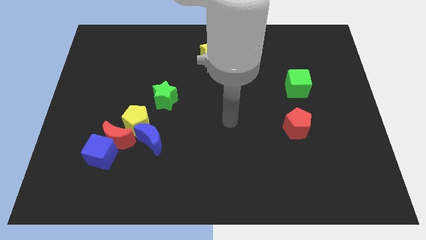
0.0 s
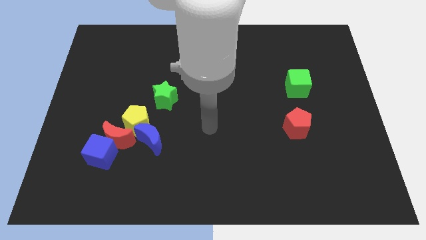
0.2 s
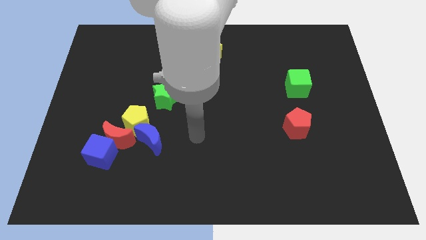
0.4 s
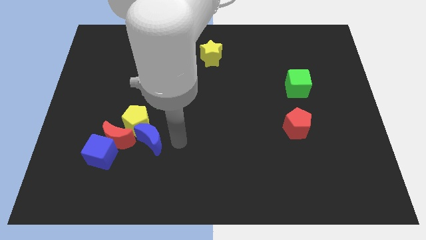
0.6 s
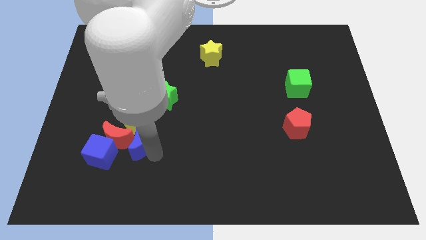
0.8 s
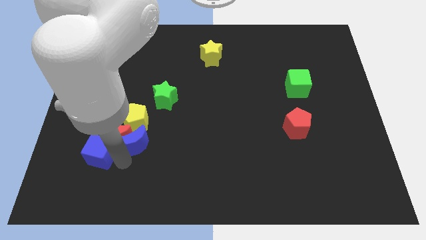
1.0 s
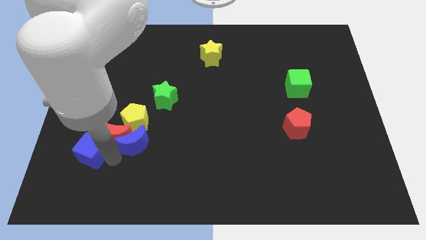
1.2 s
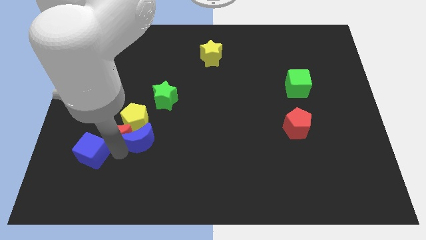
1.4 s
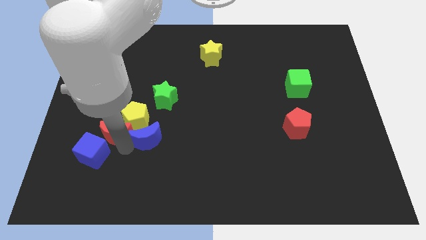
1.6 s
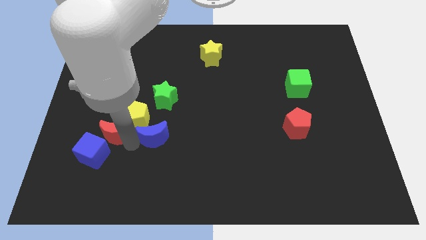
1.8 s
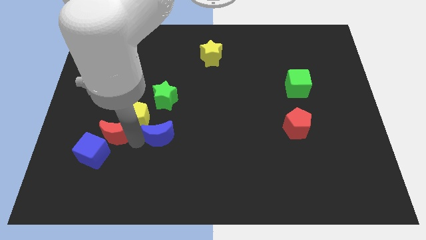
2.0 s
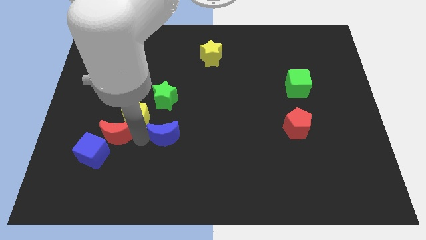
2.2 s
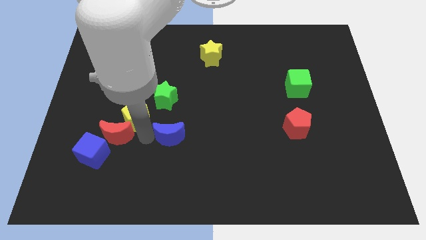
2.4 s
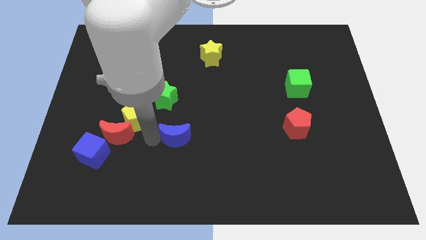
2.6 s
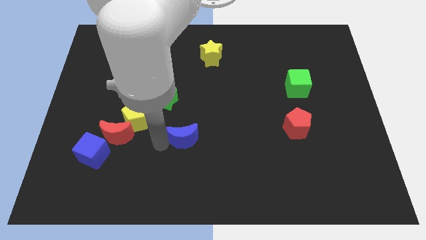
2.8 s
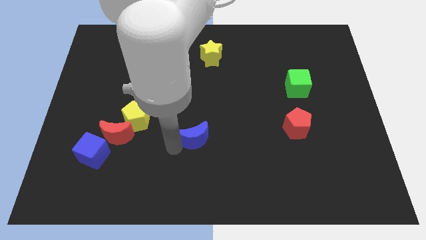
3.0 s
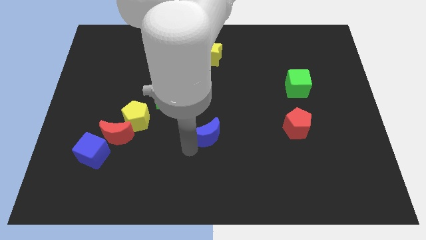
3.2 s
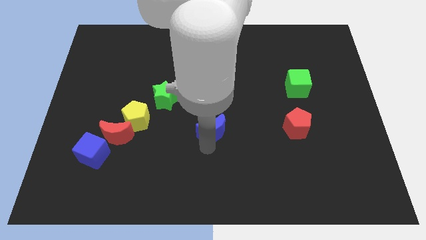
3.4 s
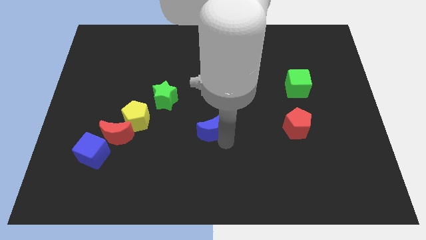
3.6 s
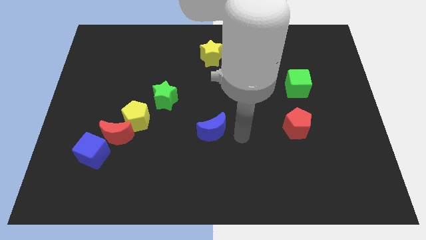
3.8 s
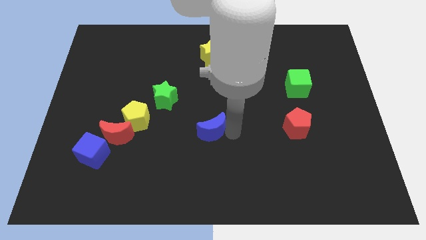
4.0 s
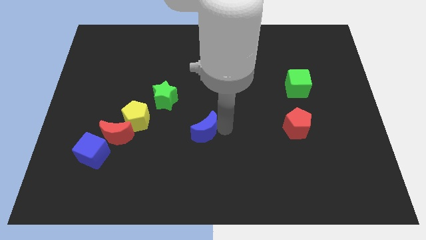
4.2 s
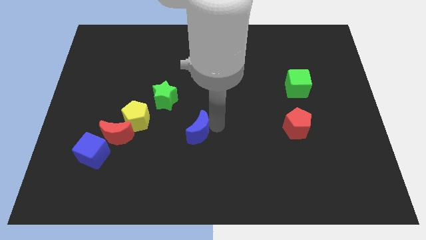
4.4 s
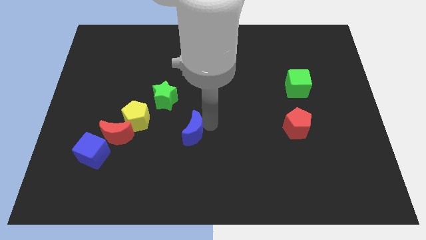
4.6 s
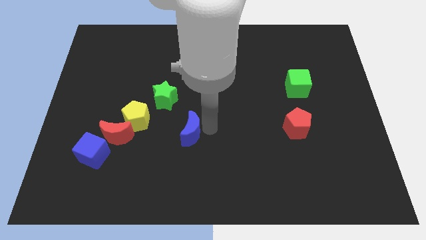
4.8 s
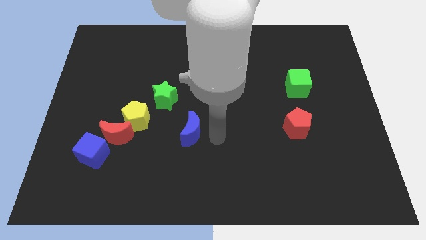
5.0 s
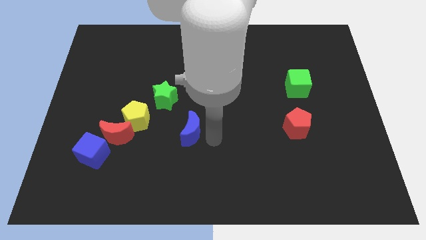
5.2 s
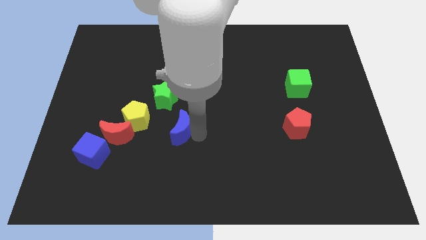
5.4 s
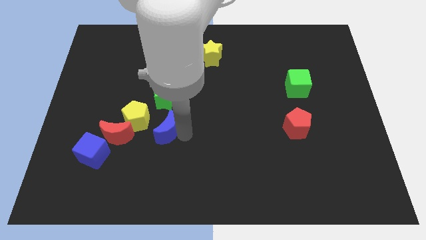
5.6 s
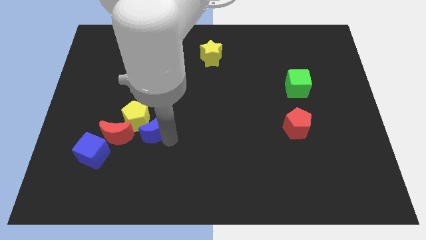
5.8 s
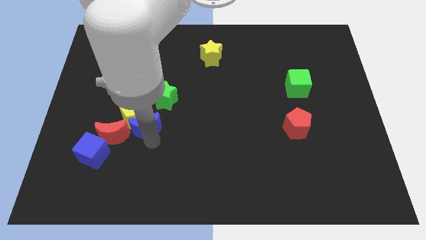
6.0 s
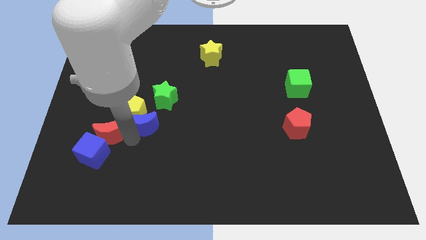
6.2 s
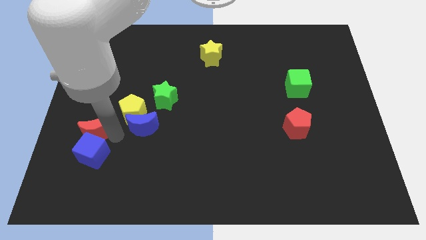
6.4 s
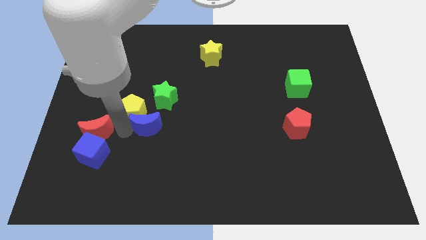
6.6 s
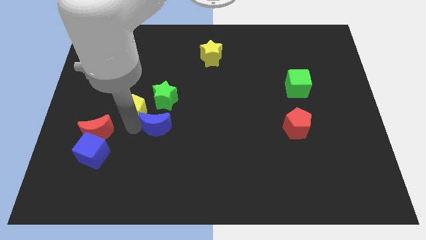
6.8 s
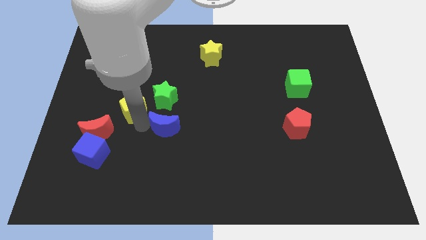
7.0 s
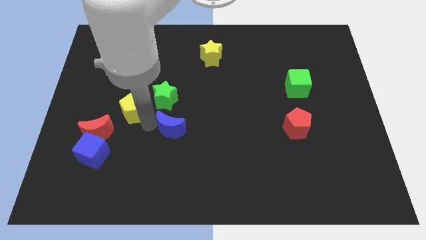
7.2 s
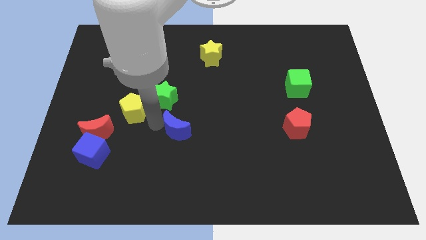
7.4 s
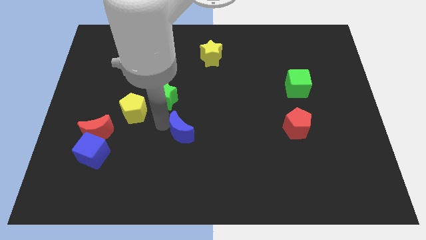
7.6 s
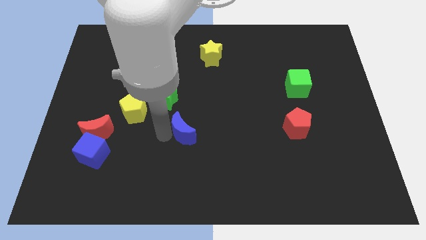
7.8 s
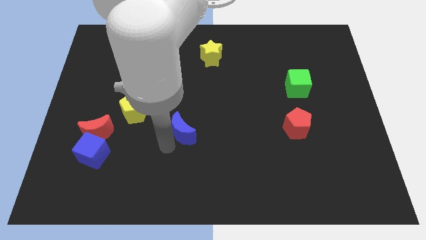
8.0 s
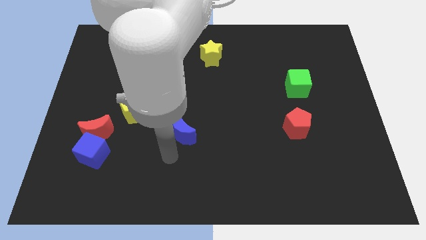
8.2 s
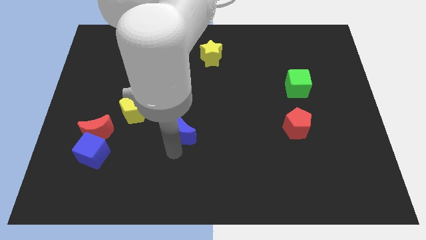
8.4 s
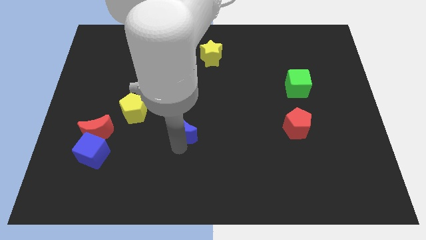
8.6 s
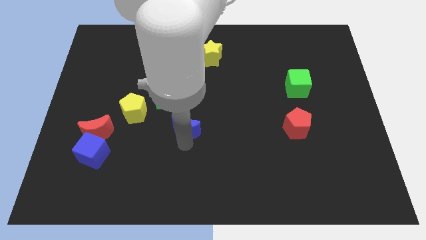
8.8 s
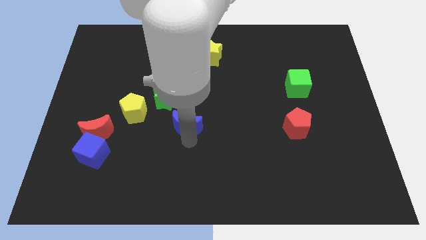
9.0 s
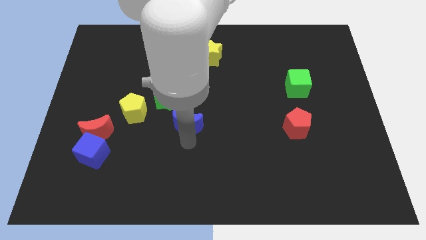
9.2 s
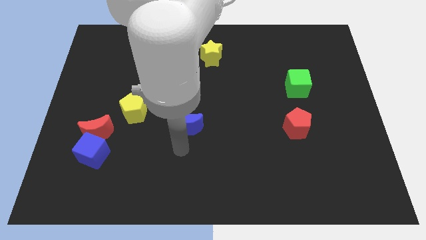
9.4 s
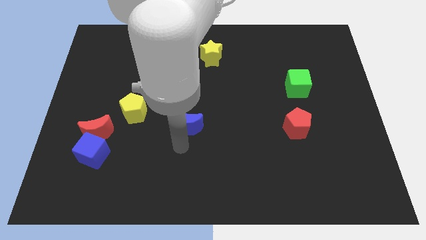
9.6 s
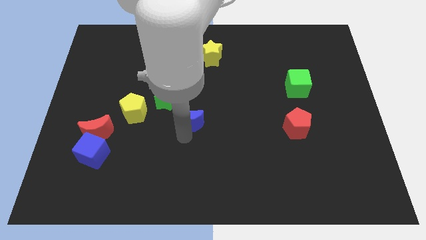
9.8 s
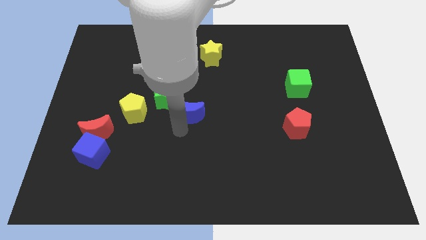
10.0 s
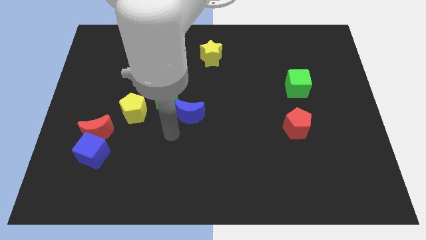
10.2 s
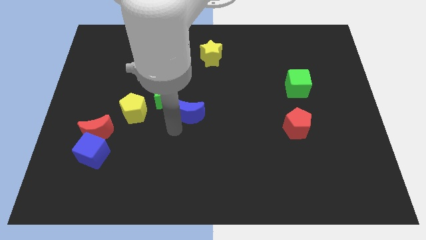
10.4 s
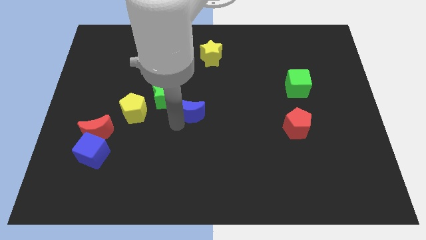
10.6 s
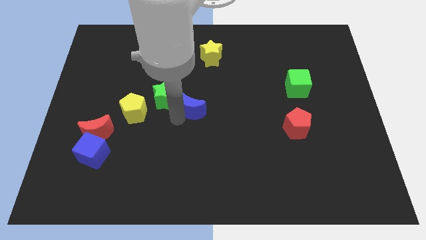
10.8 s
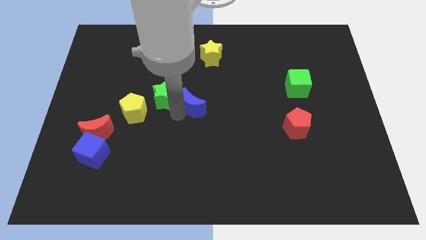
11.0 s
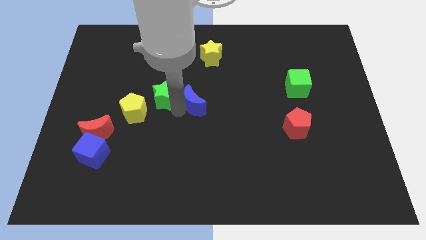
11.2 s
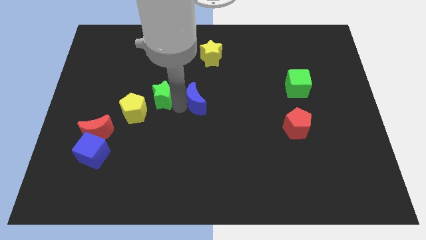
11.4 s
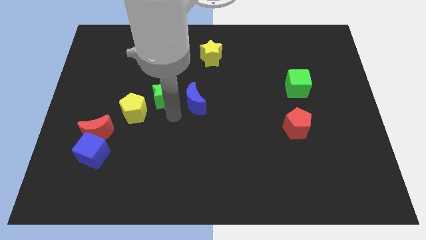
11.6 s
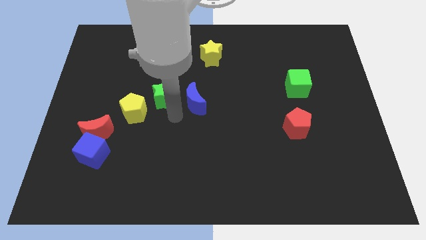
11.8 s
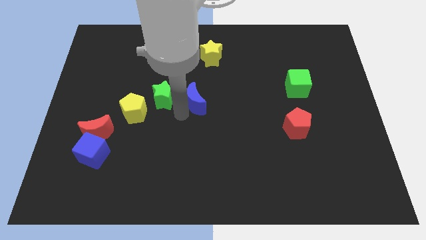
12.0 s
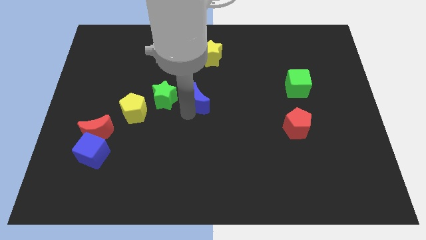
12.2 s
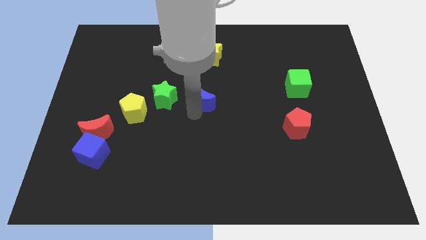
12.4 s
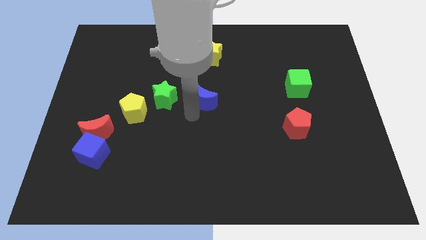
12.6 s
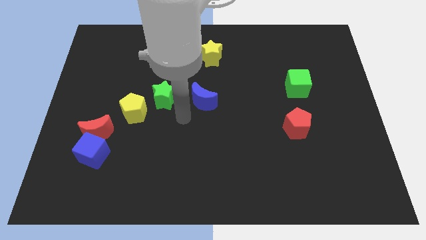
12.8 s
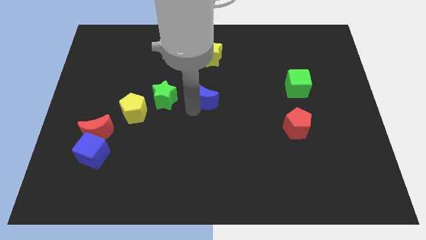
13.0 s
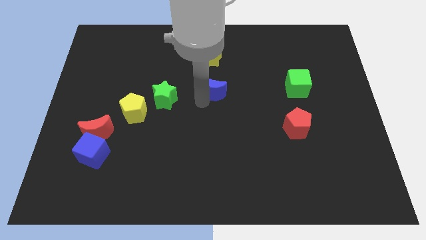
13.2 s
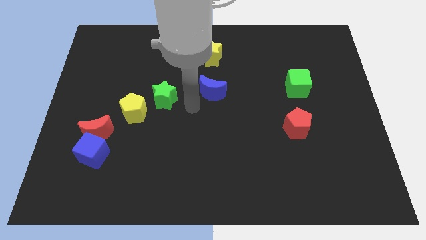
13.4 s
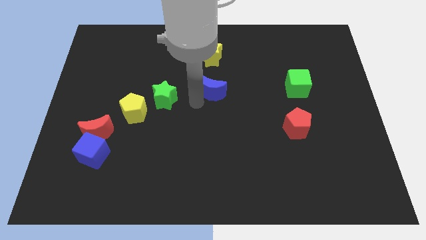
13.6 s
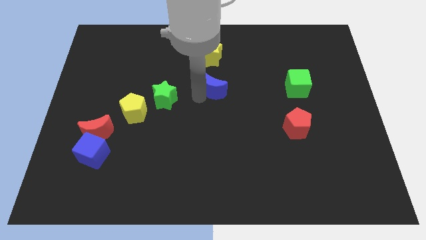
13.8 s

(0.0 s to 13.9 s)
slide the blue moon up and then right

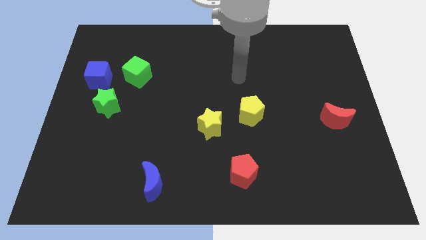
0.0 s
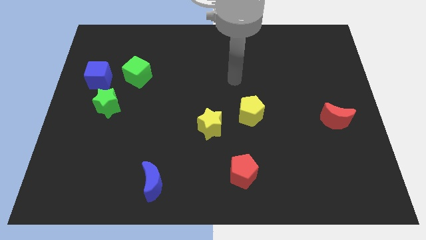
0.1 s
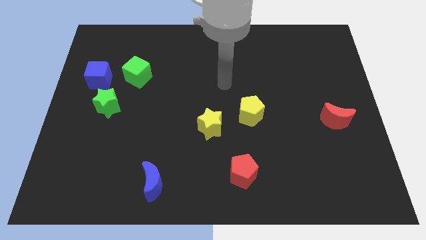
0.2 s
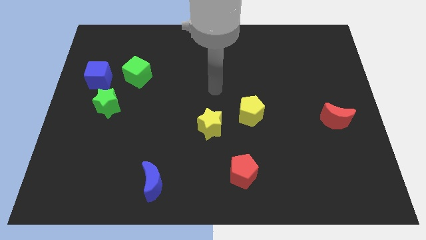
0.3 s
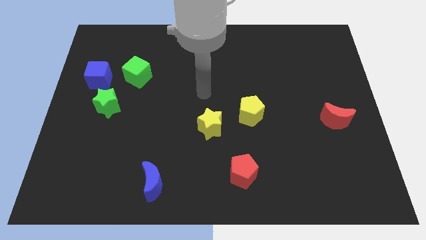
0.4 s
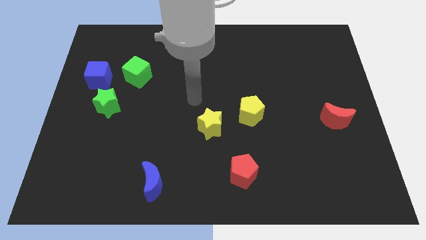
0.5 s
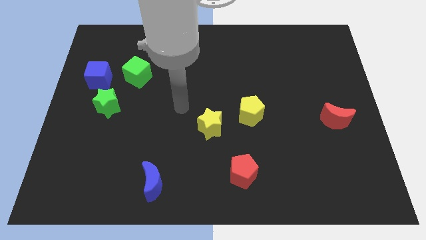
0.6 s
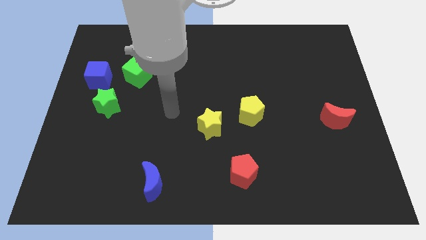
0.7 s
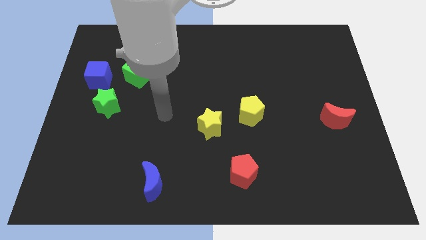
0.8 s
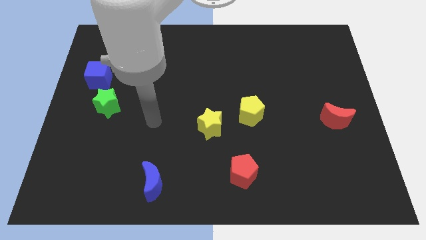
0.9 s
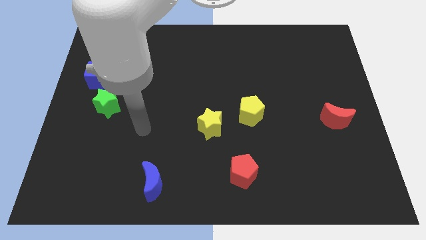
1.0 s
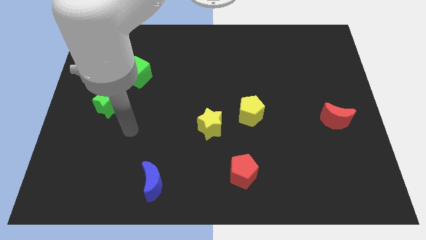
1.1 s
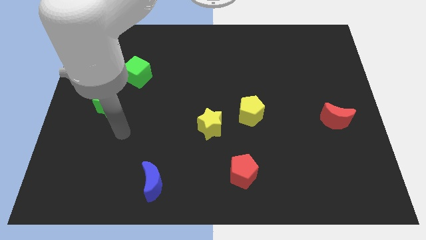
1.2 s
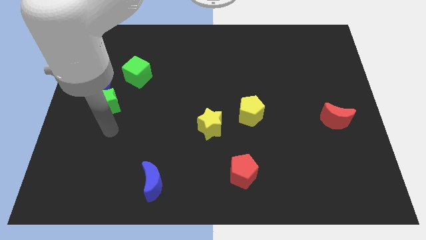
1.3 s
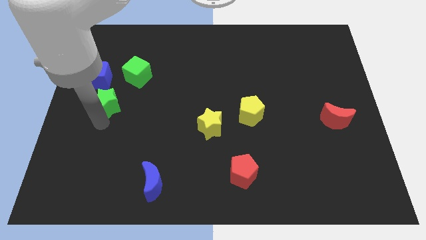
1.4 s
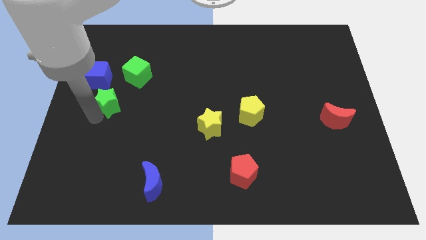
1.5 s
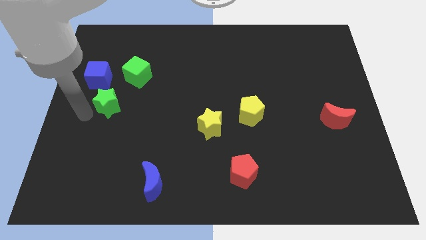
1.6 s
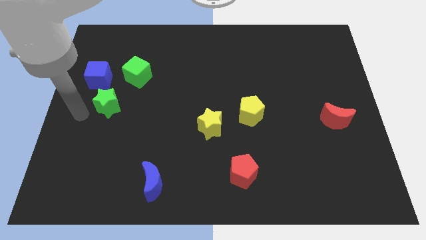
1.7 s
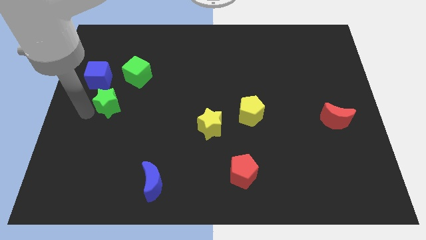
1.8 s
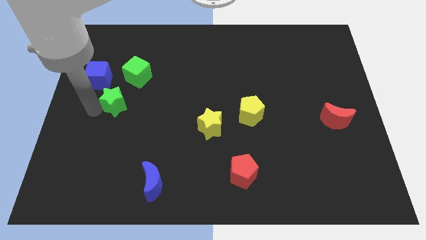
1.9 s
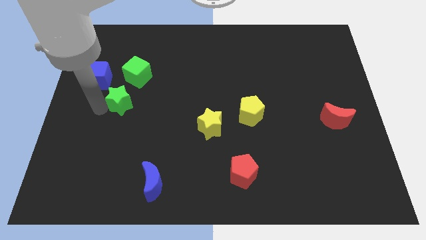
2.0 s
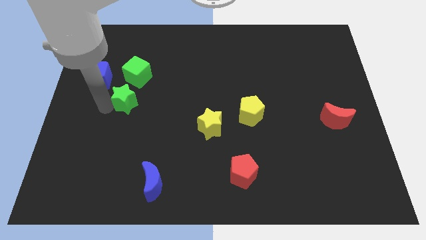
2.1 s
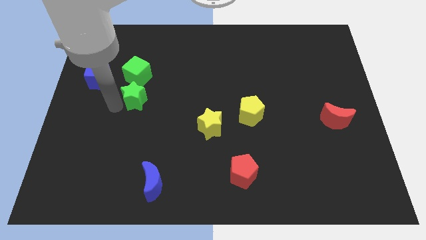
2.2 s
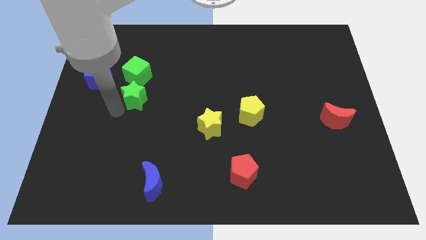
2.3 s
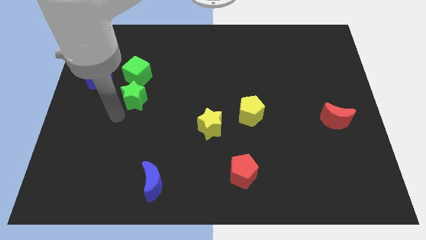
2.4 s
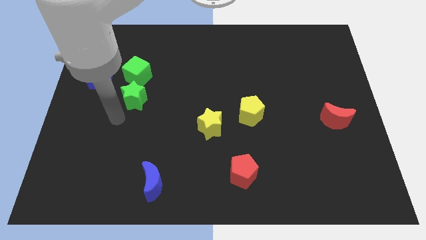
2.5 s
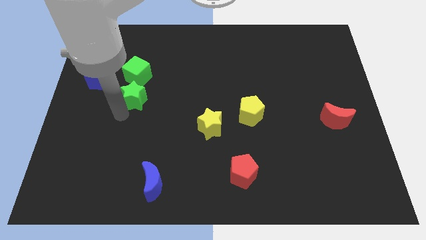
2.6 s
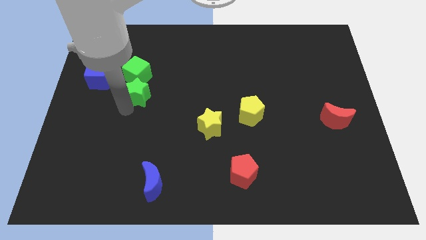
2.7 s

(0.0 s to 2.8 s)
move the green star somewhat up and then right
